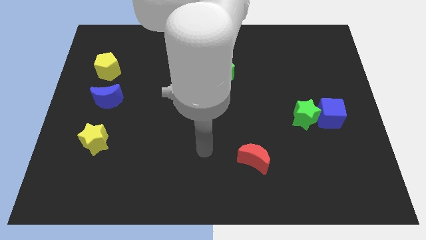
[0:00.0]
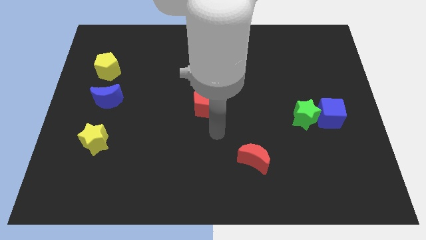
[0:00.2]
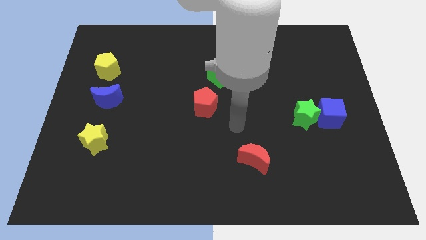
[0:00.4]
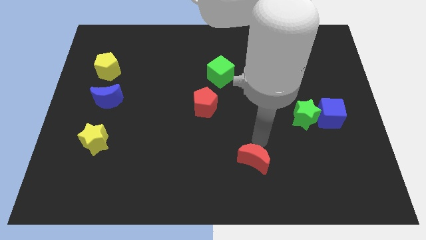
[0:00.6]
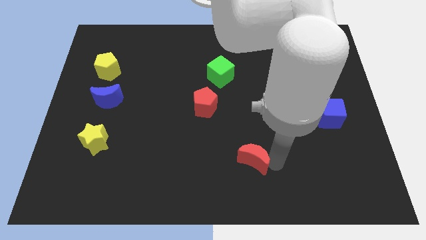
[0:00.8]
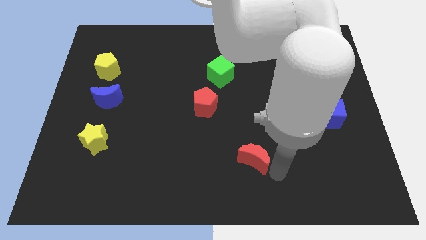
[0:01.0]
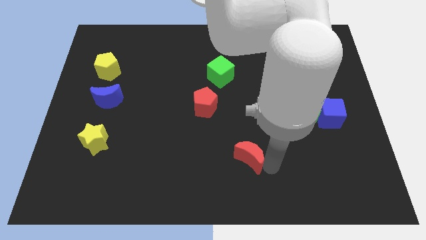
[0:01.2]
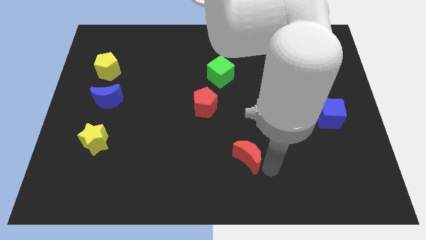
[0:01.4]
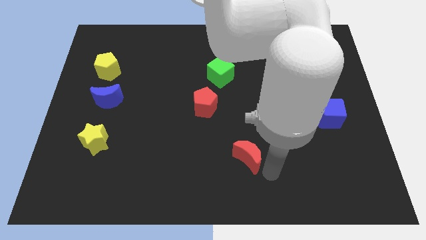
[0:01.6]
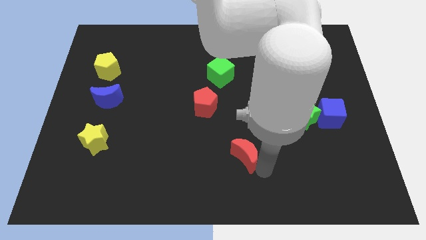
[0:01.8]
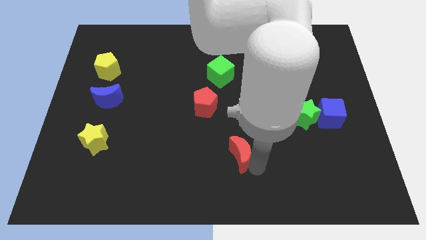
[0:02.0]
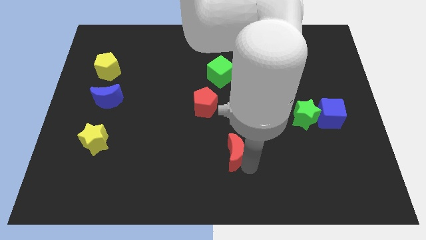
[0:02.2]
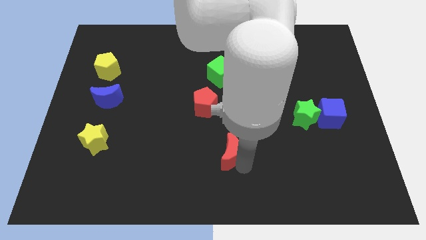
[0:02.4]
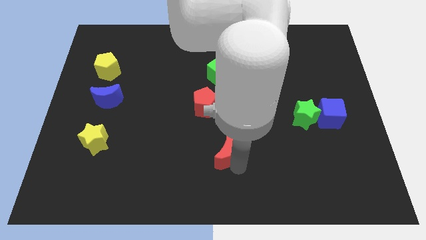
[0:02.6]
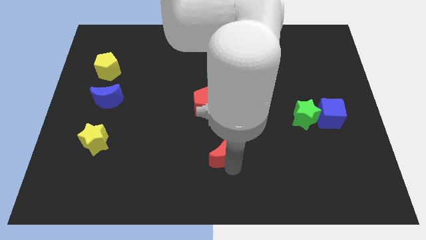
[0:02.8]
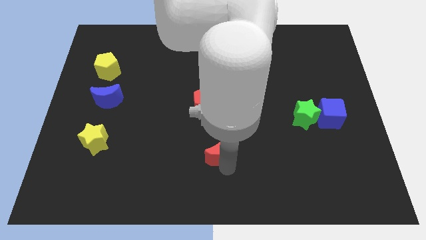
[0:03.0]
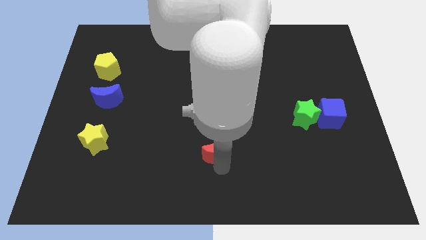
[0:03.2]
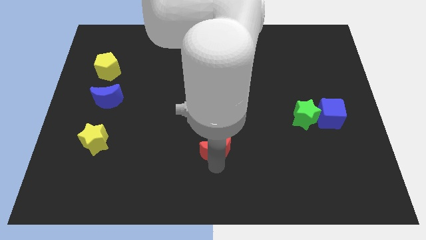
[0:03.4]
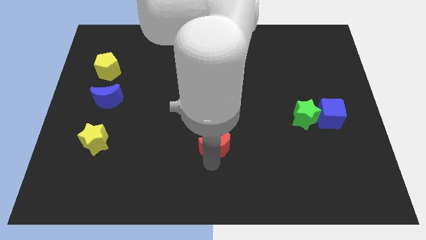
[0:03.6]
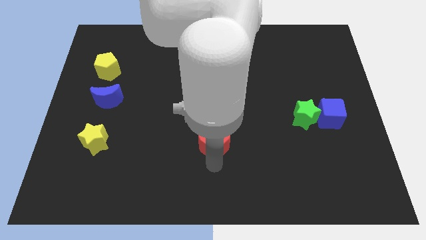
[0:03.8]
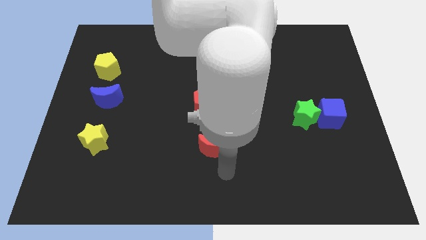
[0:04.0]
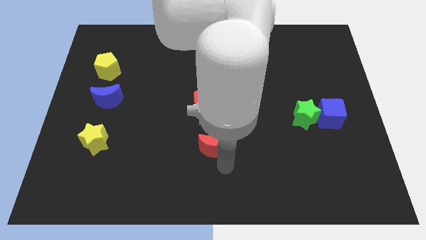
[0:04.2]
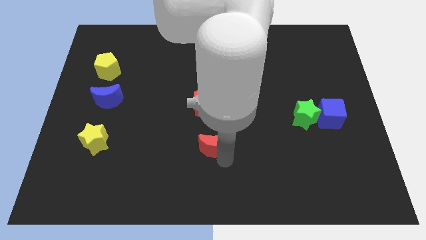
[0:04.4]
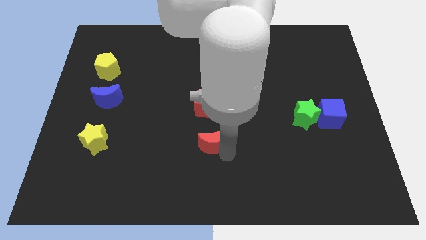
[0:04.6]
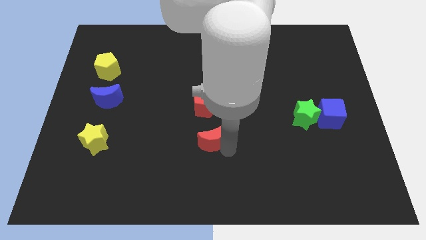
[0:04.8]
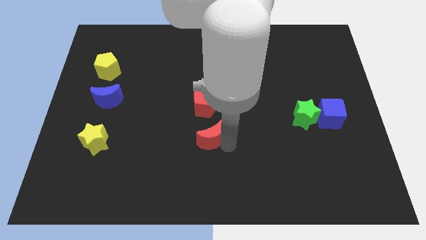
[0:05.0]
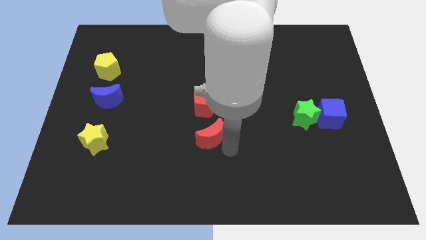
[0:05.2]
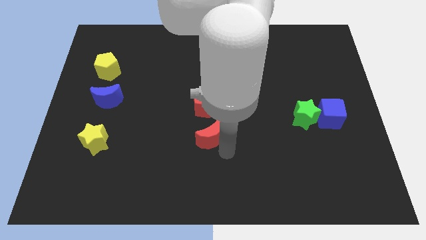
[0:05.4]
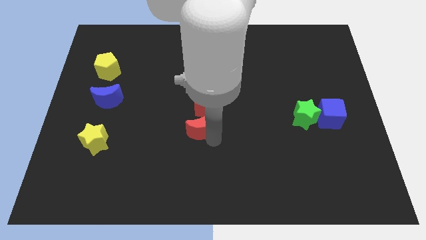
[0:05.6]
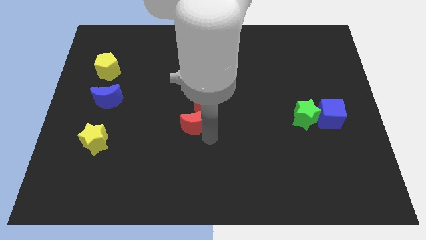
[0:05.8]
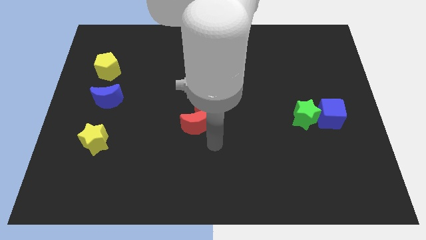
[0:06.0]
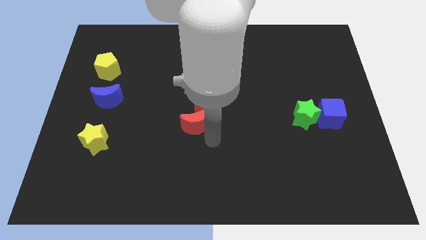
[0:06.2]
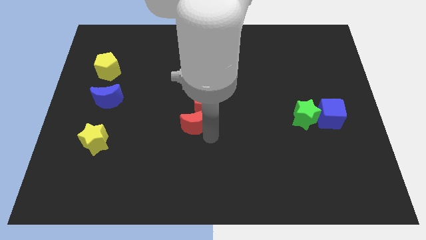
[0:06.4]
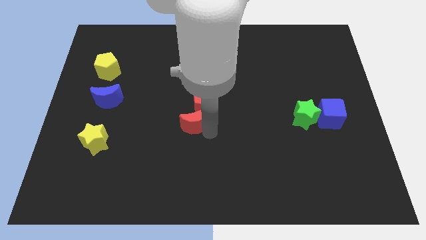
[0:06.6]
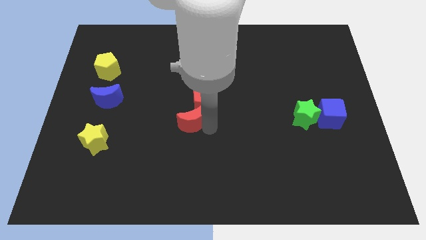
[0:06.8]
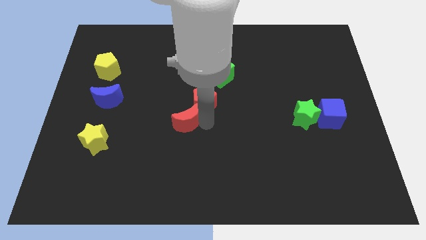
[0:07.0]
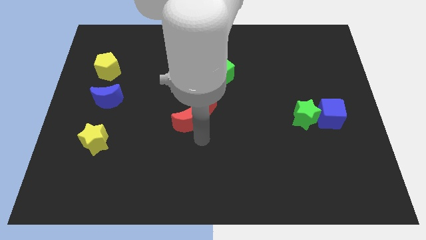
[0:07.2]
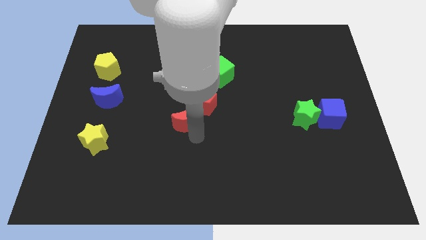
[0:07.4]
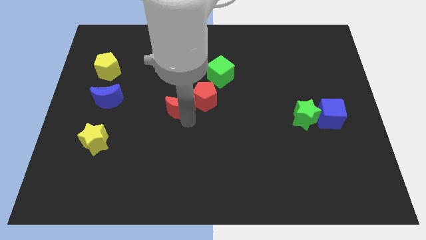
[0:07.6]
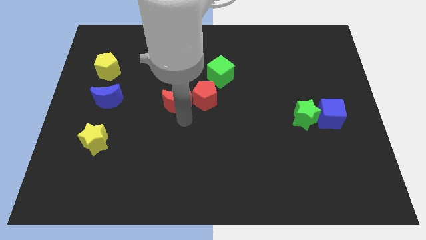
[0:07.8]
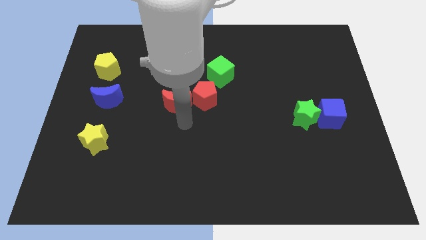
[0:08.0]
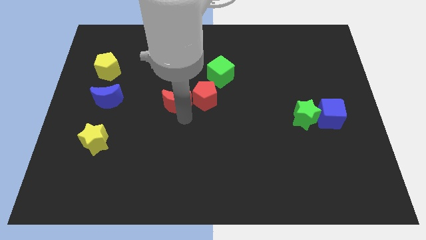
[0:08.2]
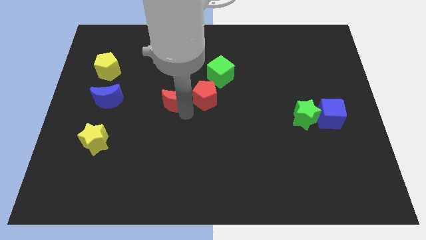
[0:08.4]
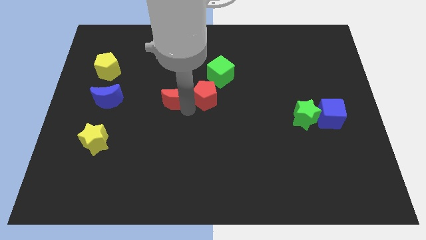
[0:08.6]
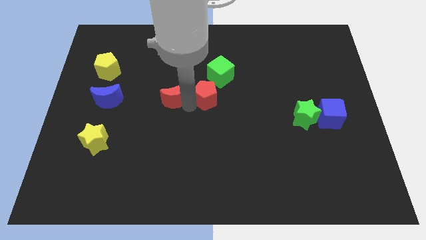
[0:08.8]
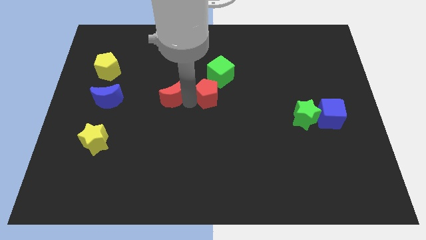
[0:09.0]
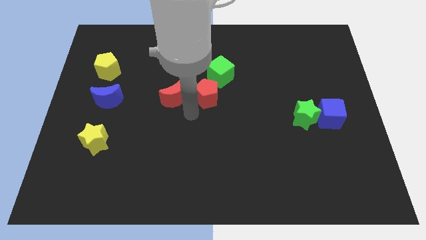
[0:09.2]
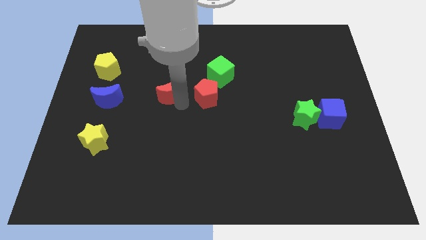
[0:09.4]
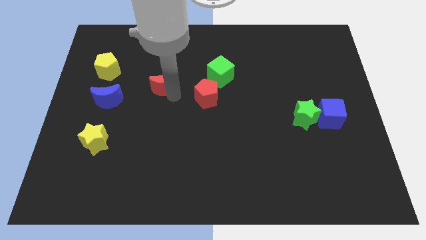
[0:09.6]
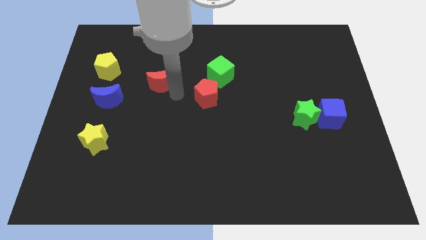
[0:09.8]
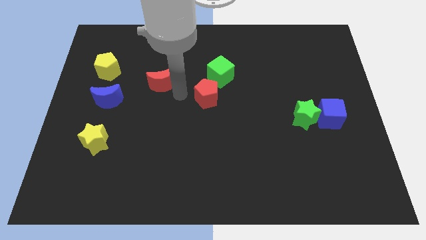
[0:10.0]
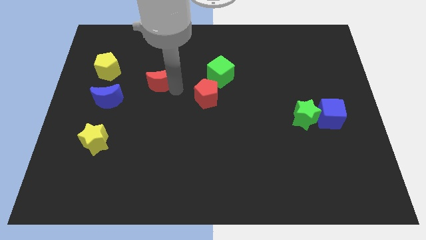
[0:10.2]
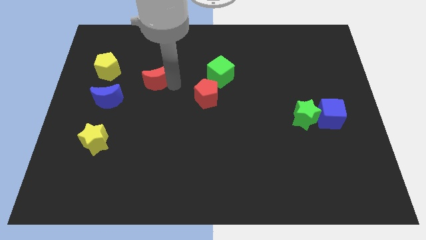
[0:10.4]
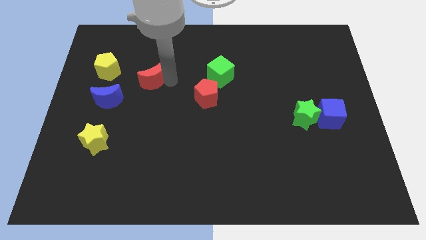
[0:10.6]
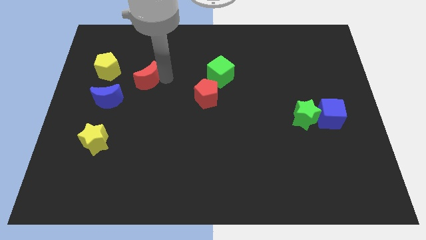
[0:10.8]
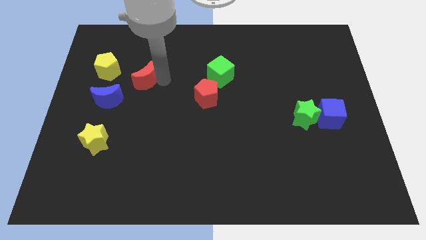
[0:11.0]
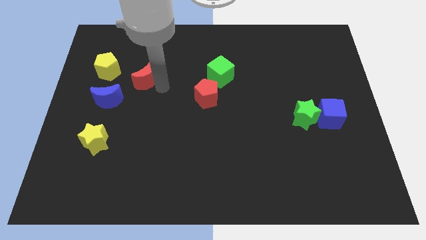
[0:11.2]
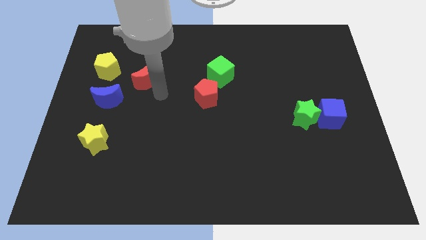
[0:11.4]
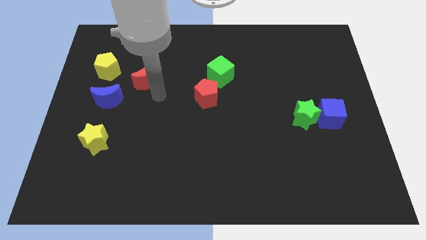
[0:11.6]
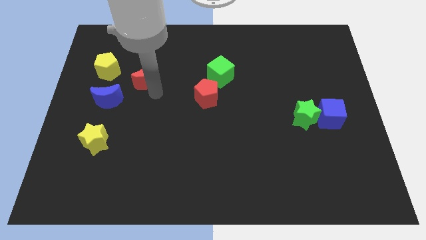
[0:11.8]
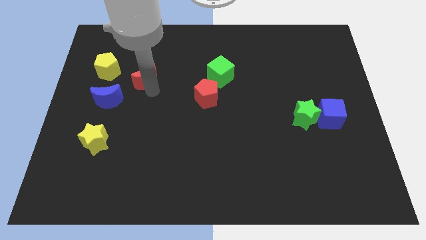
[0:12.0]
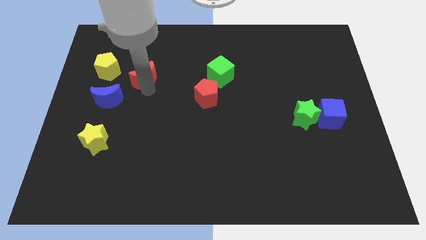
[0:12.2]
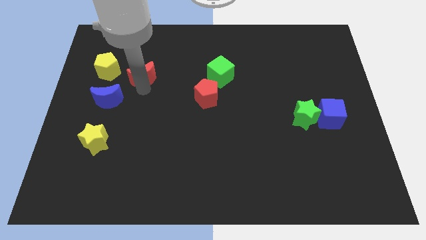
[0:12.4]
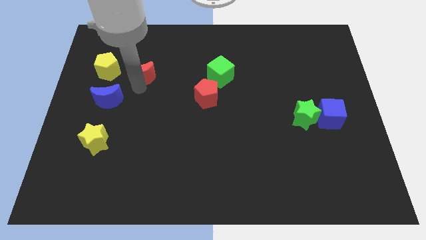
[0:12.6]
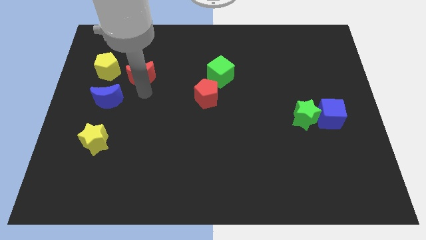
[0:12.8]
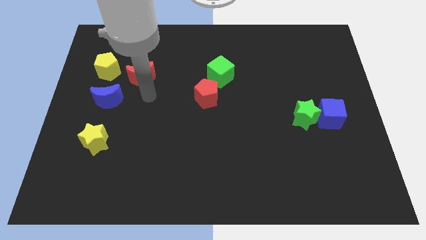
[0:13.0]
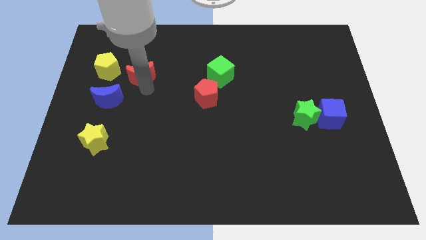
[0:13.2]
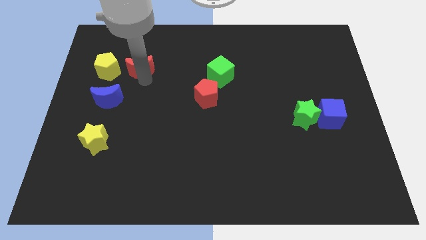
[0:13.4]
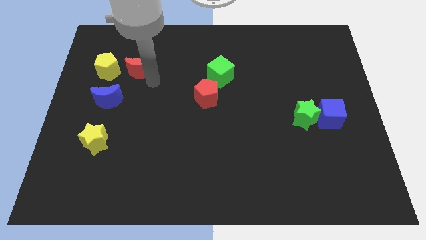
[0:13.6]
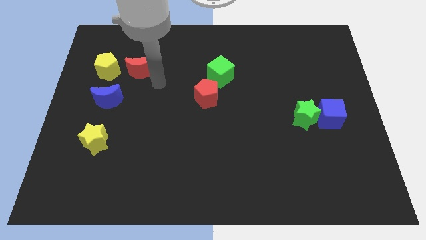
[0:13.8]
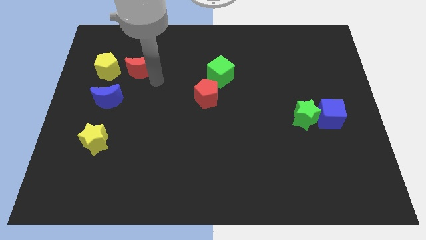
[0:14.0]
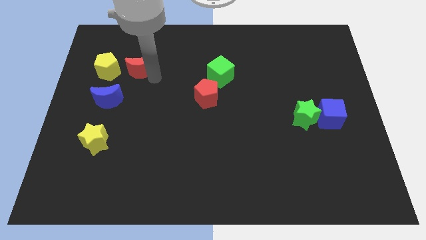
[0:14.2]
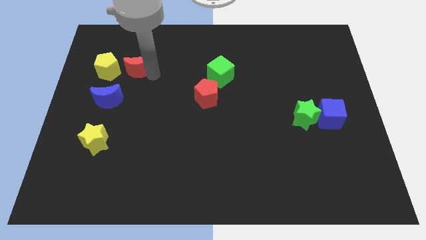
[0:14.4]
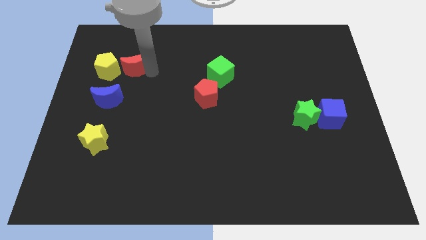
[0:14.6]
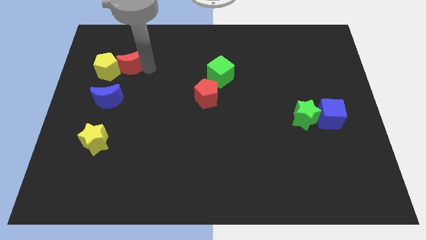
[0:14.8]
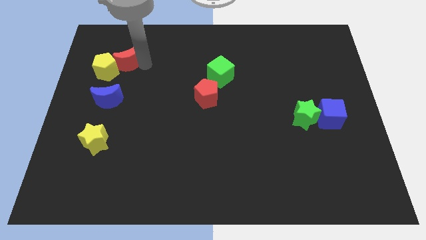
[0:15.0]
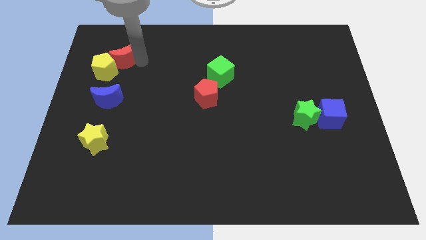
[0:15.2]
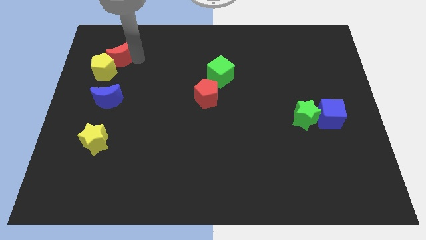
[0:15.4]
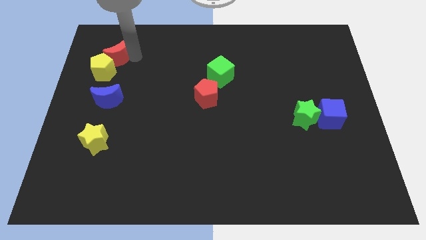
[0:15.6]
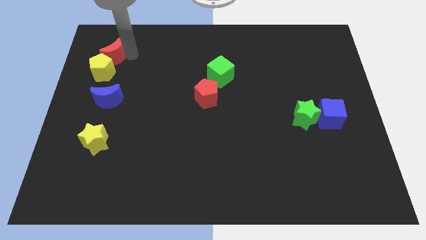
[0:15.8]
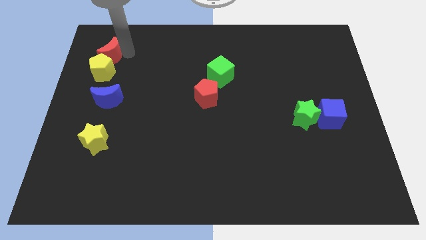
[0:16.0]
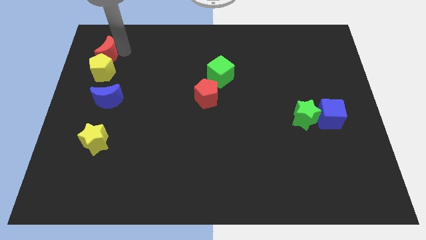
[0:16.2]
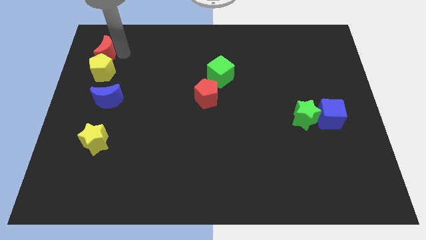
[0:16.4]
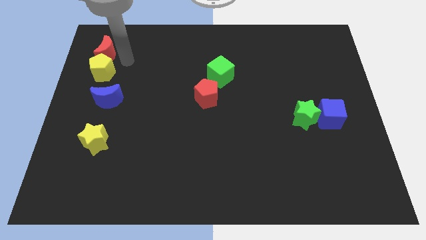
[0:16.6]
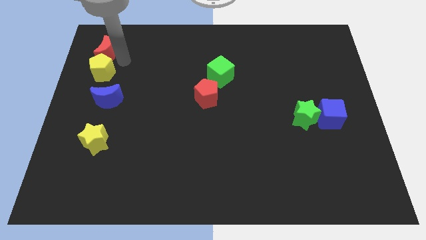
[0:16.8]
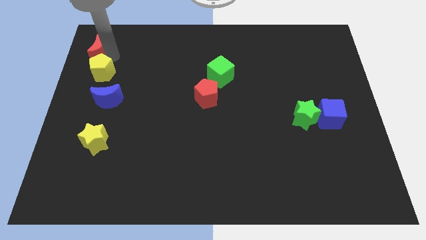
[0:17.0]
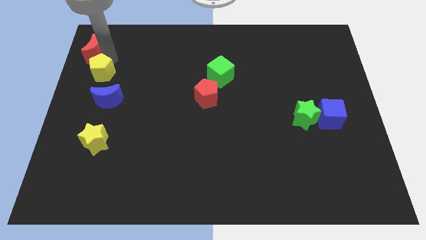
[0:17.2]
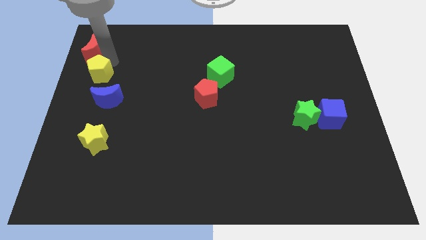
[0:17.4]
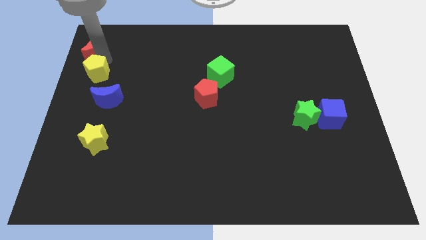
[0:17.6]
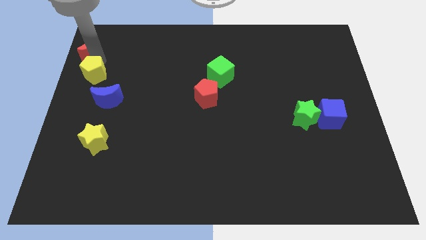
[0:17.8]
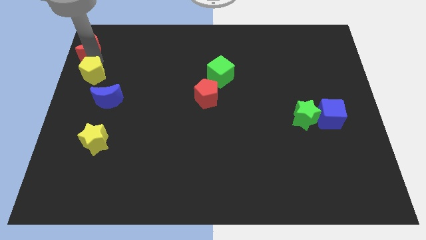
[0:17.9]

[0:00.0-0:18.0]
put the red moon to the top left
